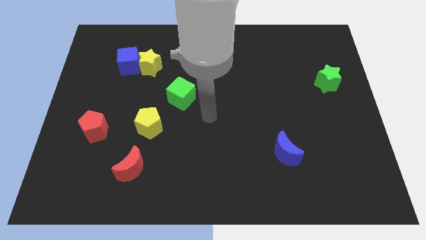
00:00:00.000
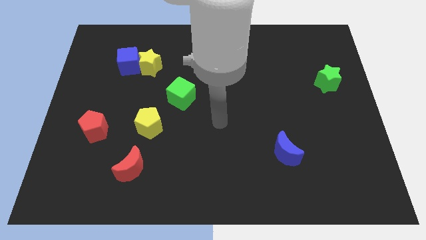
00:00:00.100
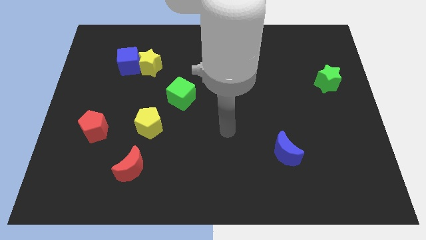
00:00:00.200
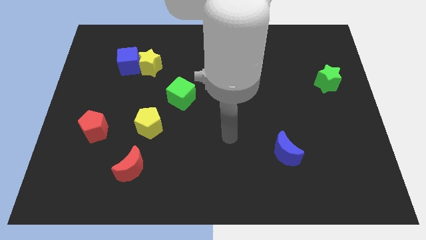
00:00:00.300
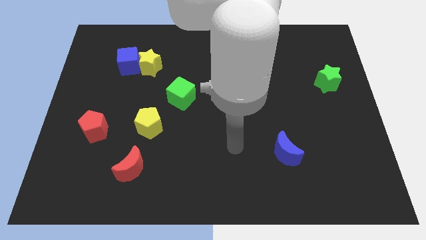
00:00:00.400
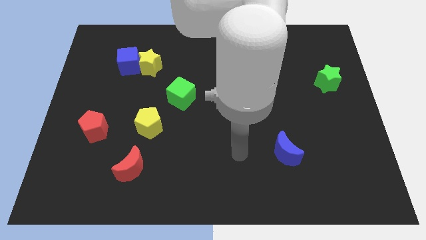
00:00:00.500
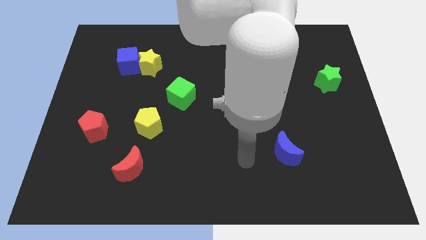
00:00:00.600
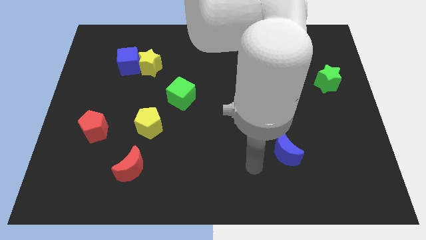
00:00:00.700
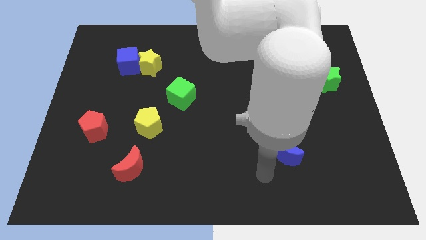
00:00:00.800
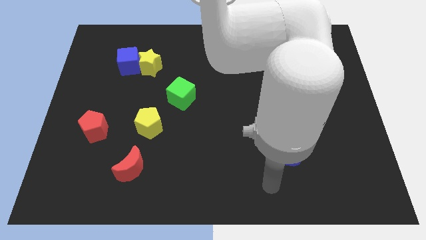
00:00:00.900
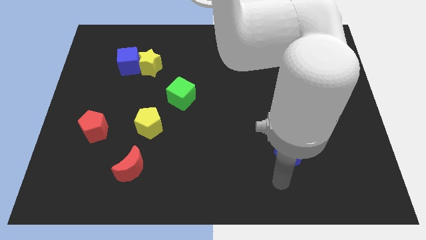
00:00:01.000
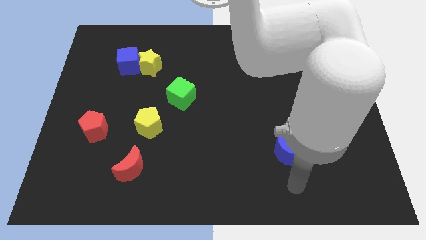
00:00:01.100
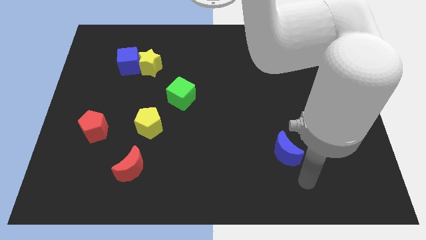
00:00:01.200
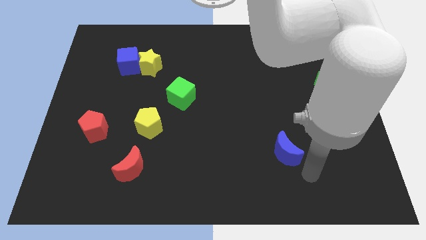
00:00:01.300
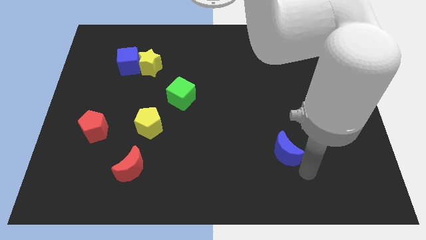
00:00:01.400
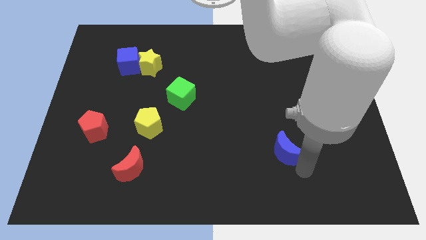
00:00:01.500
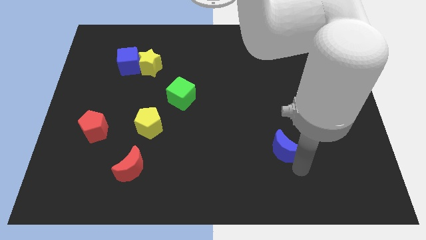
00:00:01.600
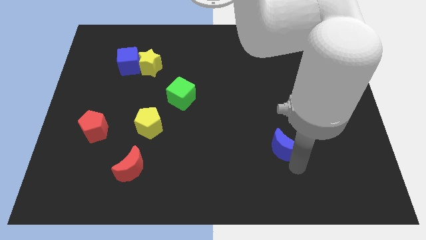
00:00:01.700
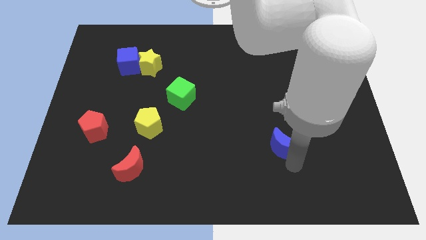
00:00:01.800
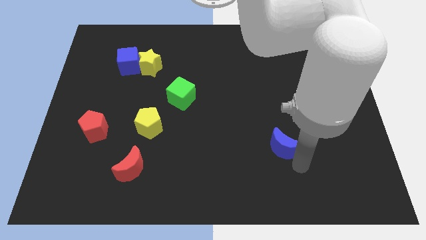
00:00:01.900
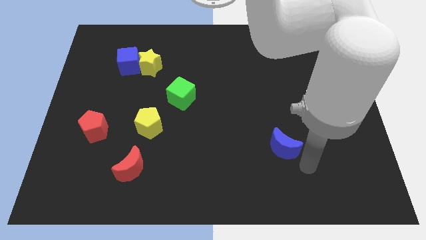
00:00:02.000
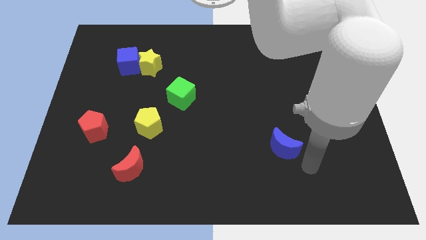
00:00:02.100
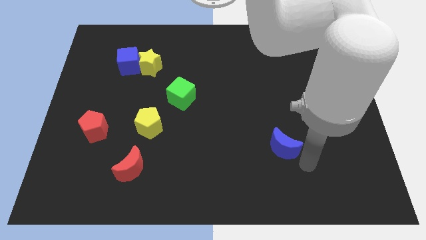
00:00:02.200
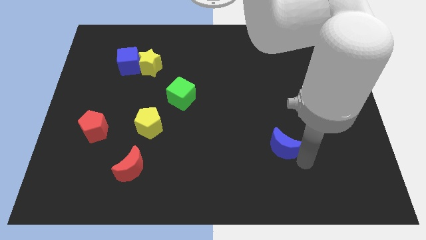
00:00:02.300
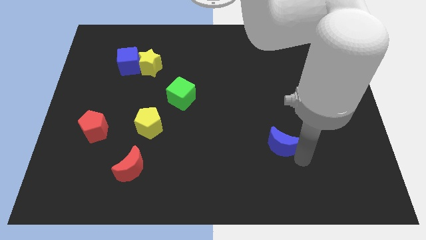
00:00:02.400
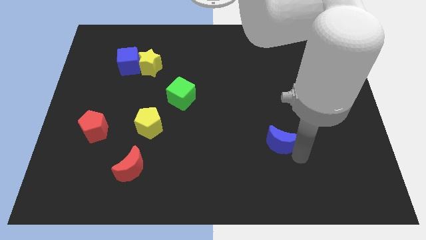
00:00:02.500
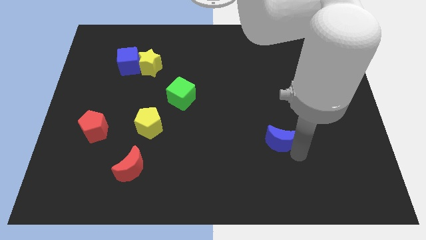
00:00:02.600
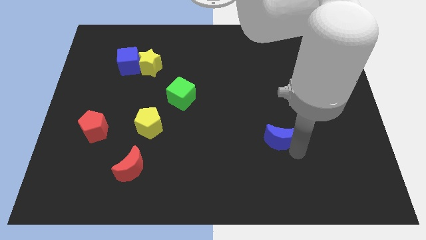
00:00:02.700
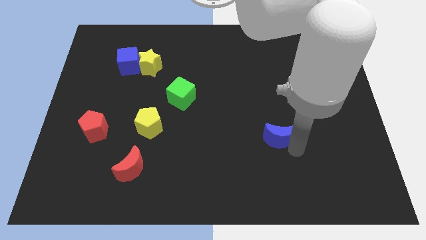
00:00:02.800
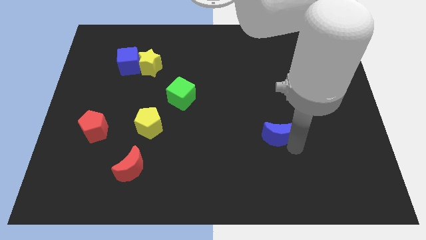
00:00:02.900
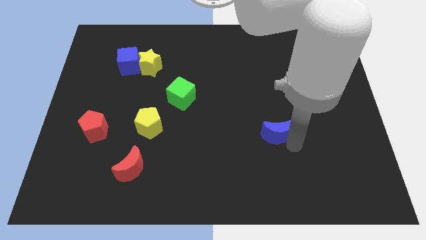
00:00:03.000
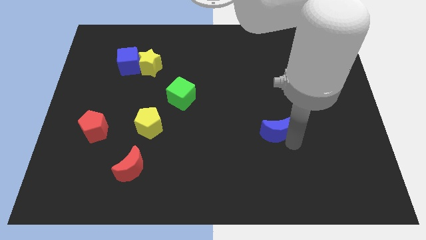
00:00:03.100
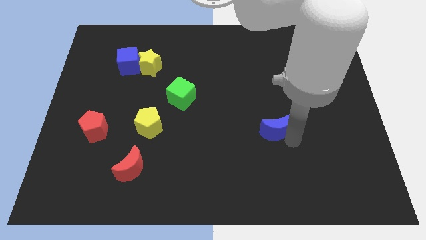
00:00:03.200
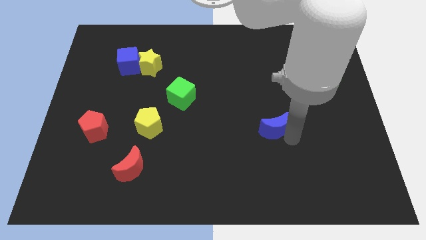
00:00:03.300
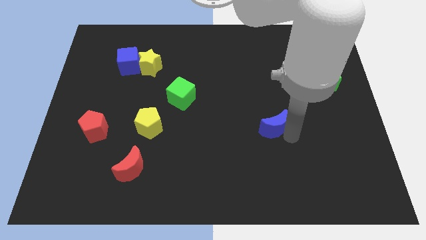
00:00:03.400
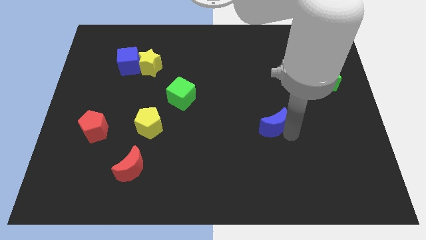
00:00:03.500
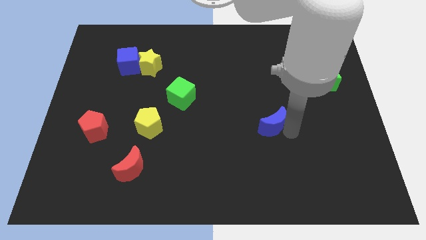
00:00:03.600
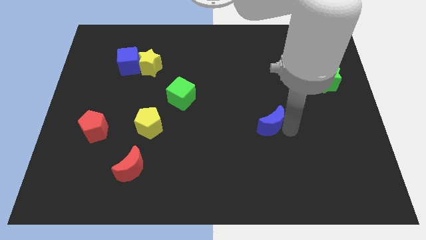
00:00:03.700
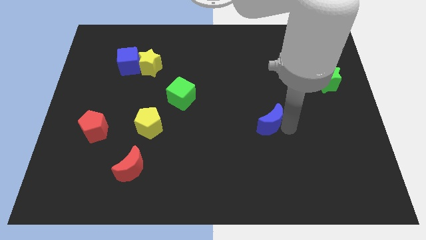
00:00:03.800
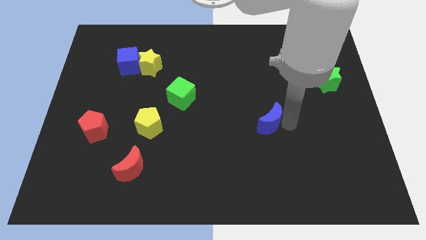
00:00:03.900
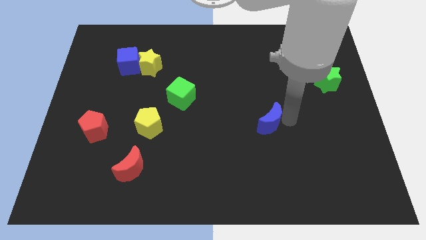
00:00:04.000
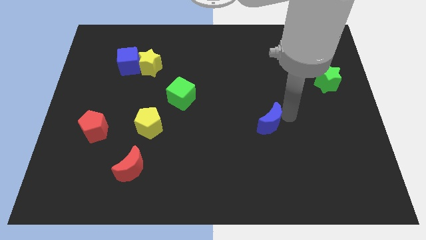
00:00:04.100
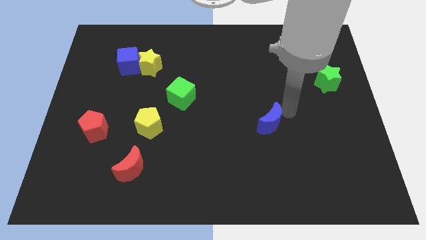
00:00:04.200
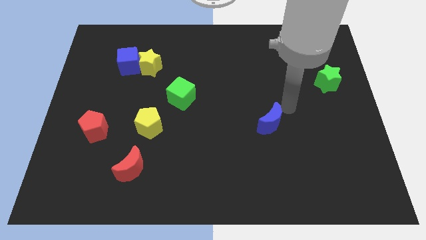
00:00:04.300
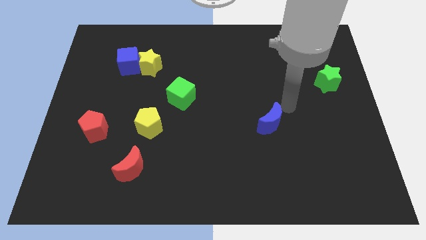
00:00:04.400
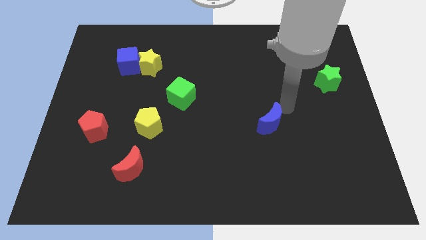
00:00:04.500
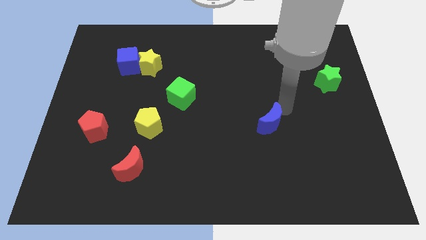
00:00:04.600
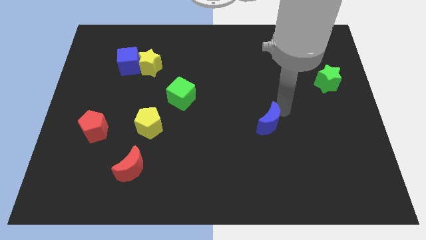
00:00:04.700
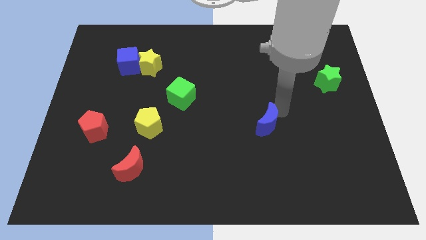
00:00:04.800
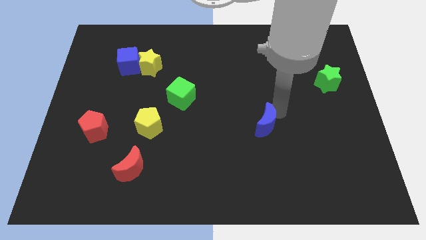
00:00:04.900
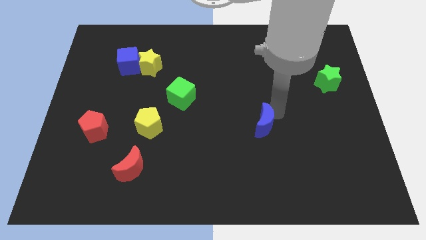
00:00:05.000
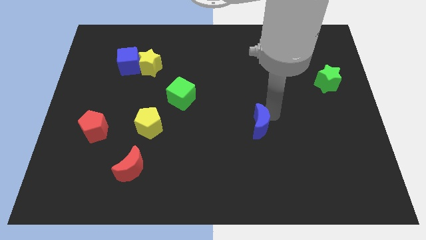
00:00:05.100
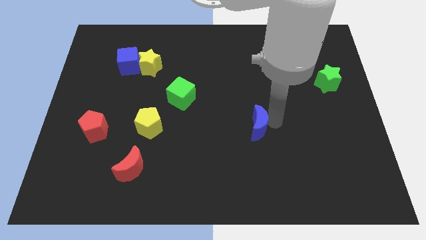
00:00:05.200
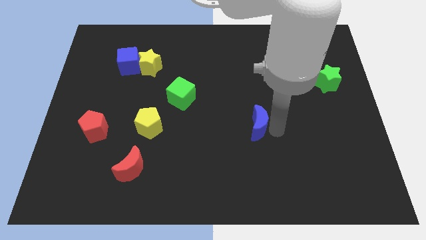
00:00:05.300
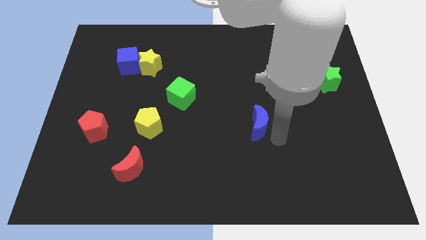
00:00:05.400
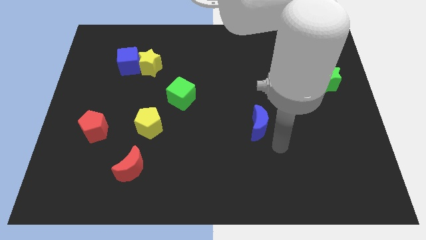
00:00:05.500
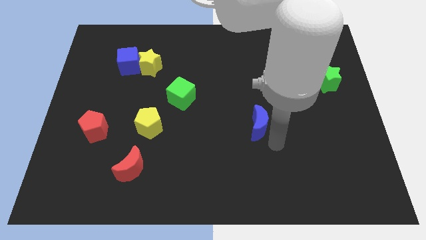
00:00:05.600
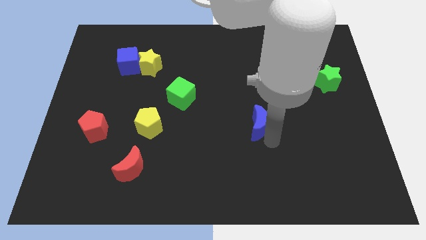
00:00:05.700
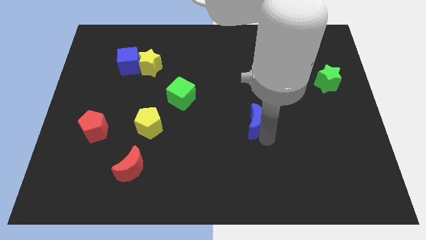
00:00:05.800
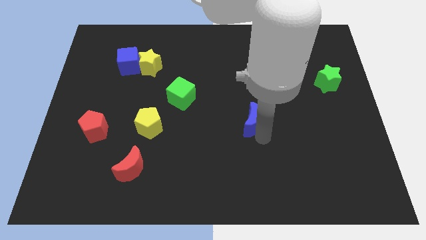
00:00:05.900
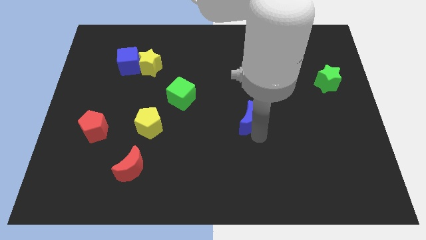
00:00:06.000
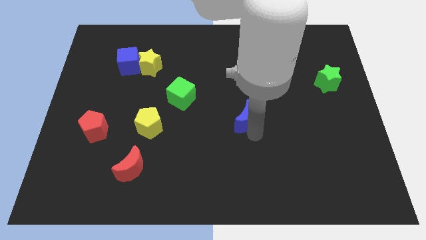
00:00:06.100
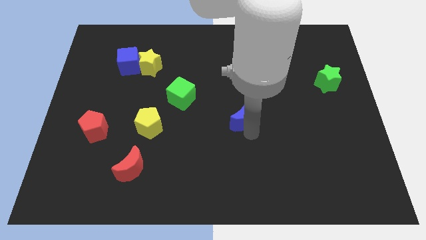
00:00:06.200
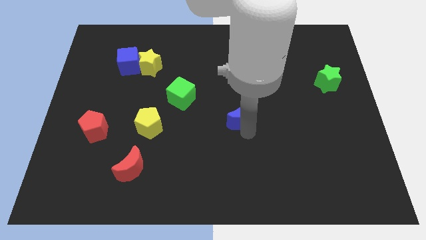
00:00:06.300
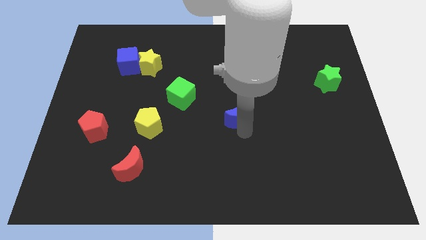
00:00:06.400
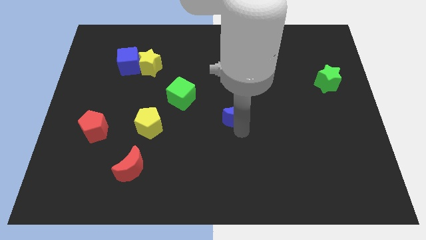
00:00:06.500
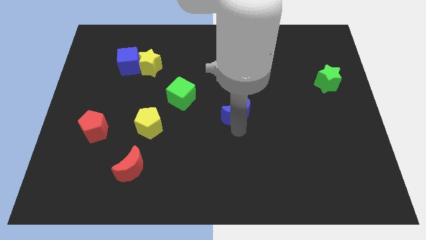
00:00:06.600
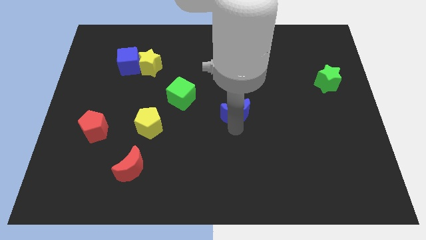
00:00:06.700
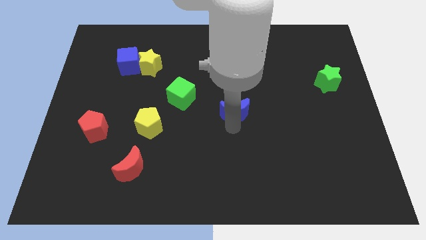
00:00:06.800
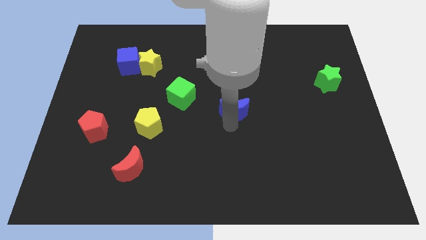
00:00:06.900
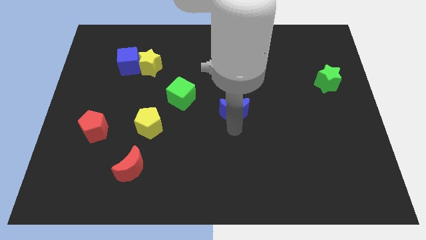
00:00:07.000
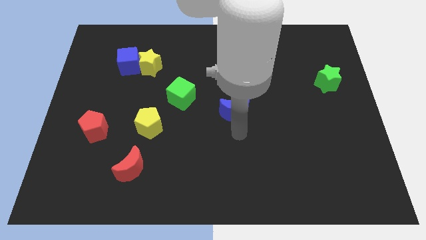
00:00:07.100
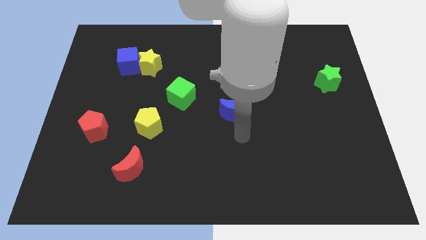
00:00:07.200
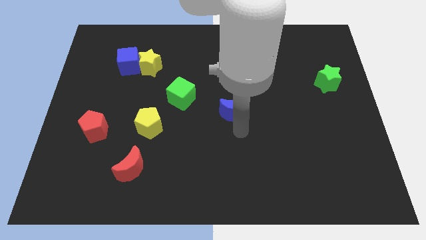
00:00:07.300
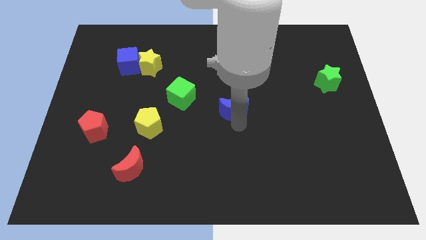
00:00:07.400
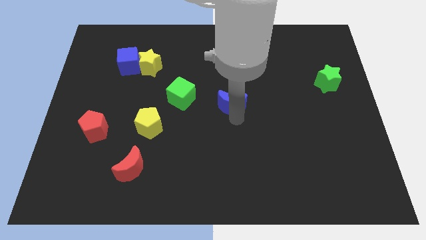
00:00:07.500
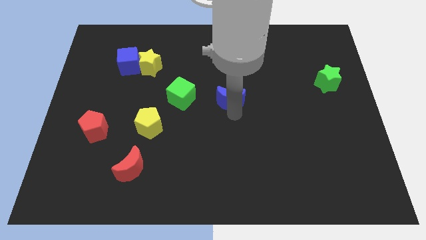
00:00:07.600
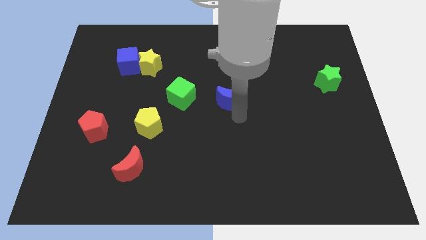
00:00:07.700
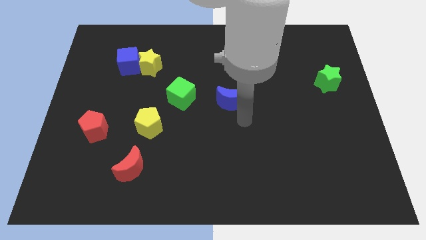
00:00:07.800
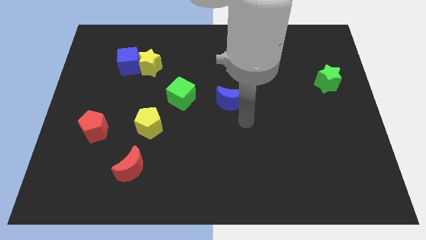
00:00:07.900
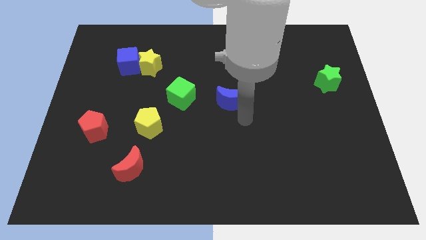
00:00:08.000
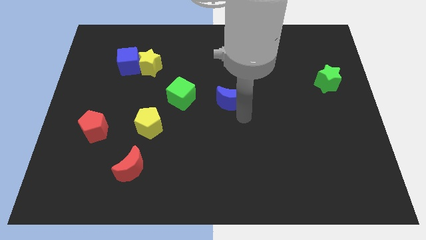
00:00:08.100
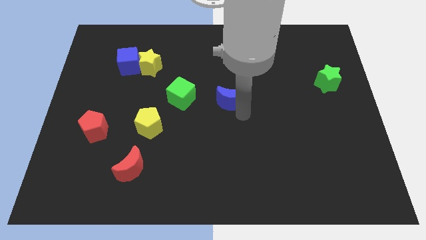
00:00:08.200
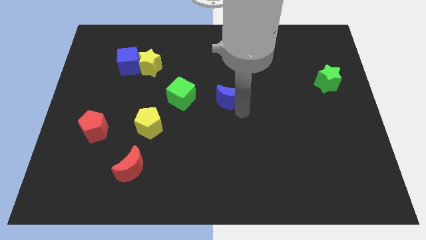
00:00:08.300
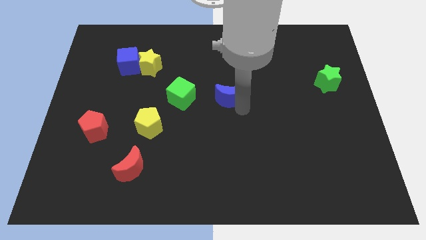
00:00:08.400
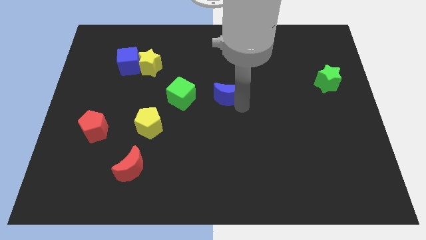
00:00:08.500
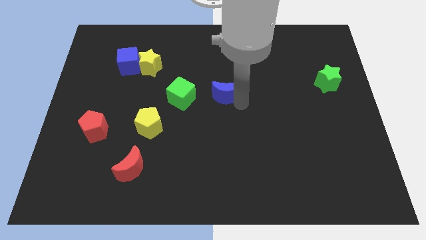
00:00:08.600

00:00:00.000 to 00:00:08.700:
move the blue moon up and to the left
